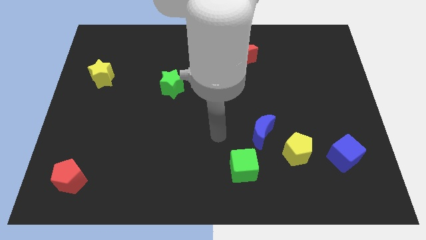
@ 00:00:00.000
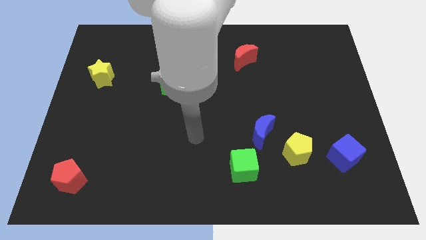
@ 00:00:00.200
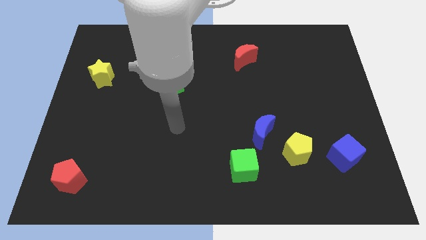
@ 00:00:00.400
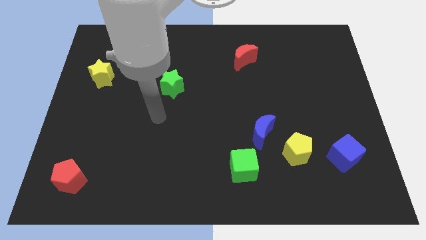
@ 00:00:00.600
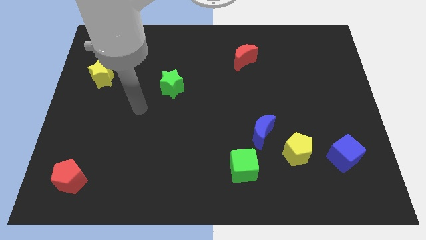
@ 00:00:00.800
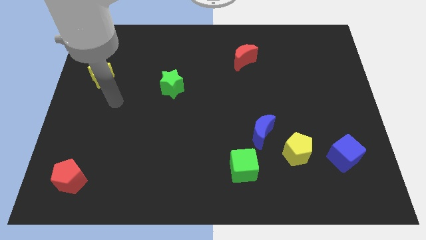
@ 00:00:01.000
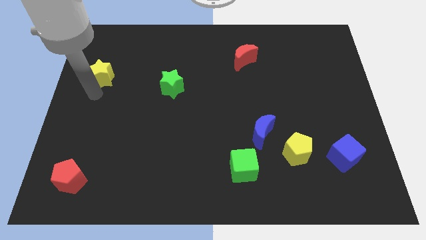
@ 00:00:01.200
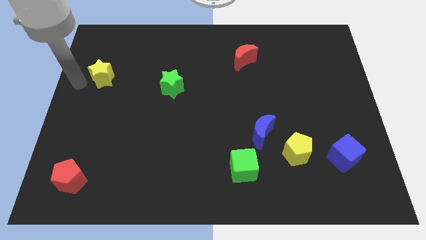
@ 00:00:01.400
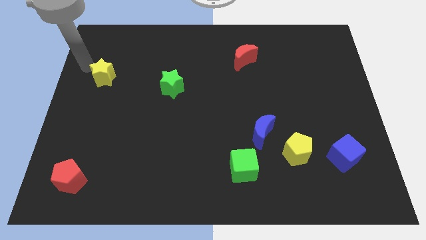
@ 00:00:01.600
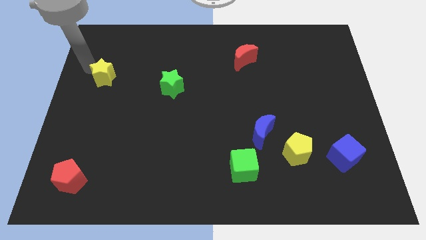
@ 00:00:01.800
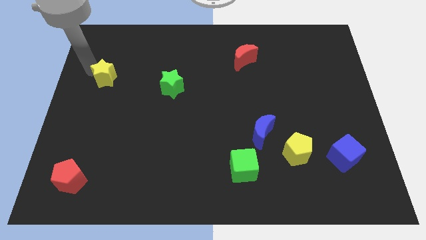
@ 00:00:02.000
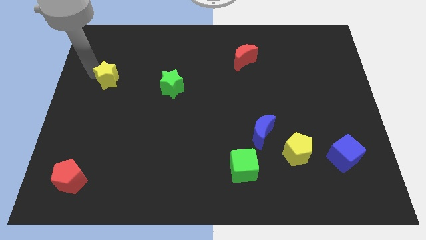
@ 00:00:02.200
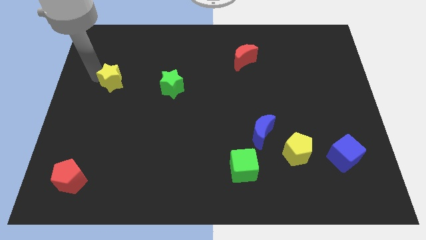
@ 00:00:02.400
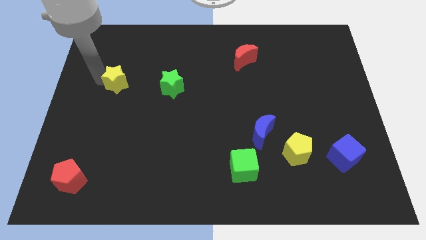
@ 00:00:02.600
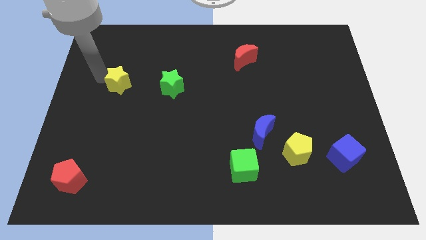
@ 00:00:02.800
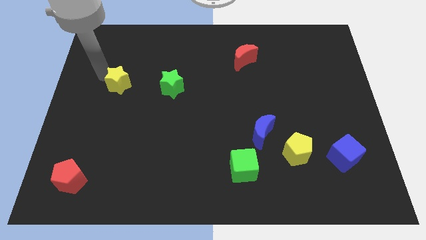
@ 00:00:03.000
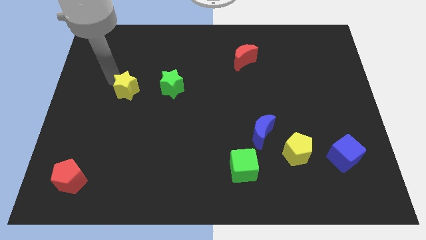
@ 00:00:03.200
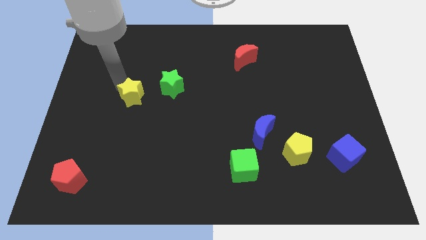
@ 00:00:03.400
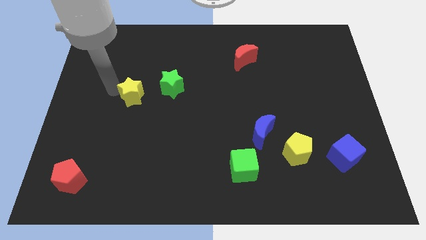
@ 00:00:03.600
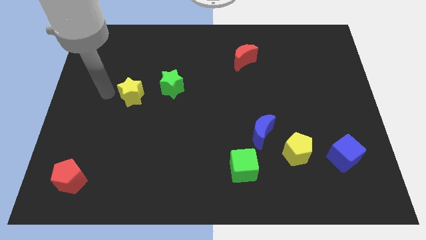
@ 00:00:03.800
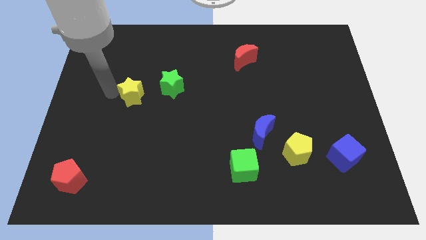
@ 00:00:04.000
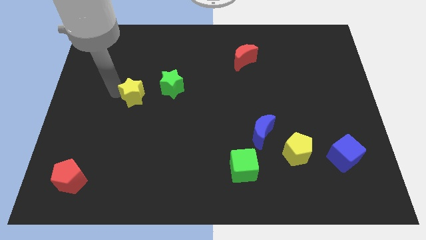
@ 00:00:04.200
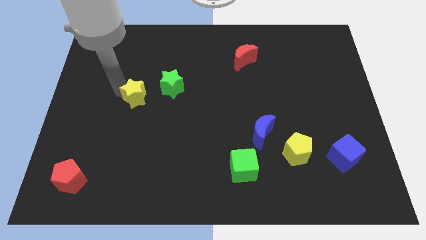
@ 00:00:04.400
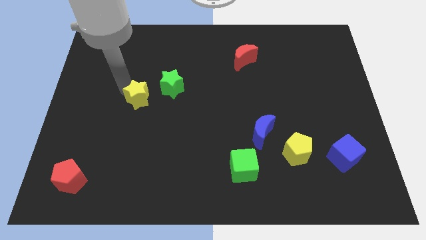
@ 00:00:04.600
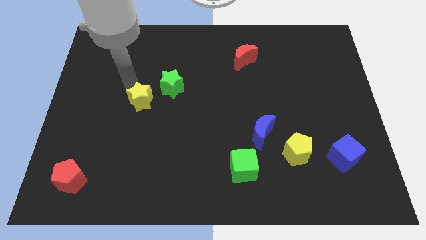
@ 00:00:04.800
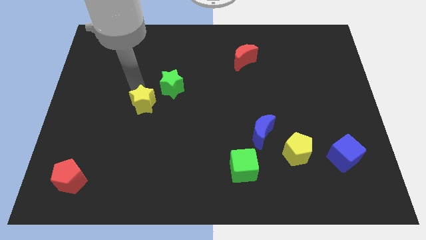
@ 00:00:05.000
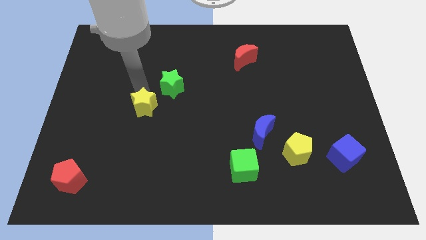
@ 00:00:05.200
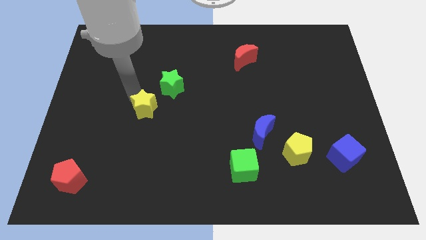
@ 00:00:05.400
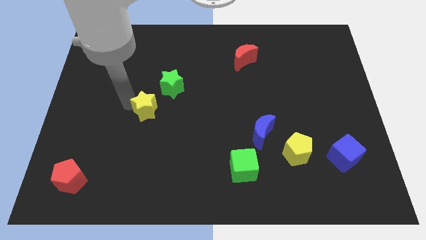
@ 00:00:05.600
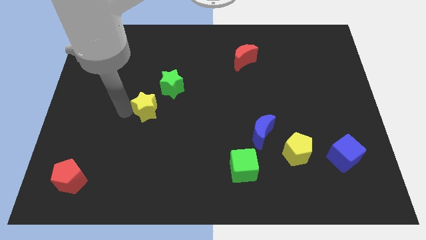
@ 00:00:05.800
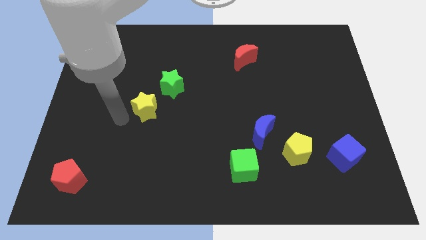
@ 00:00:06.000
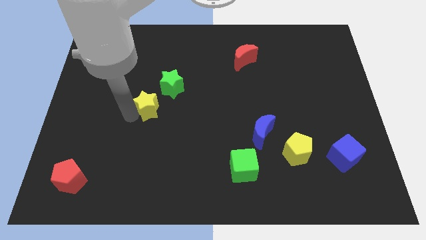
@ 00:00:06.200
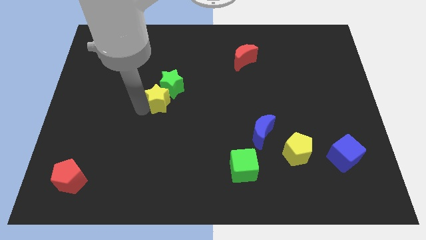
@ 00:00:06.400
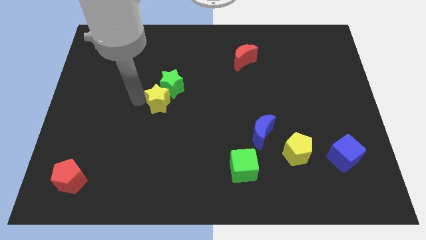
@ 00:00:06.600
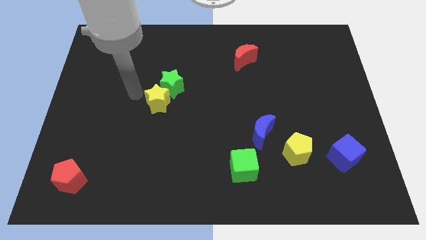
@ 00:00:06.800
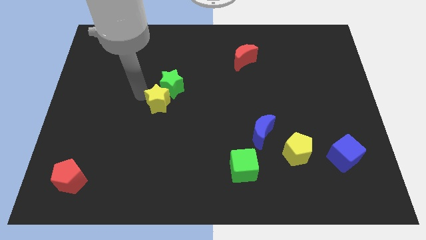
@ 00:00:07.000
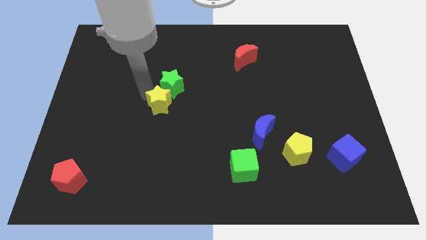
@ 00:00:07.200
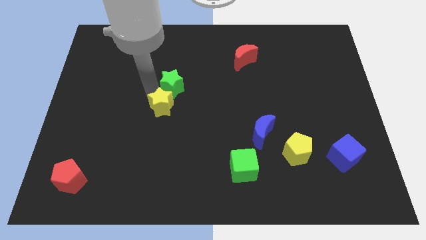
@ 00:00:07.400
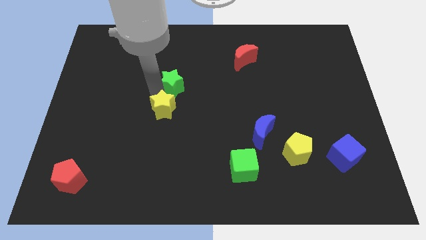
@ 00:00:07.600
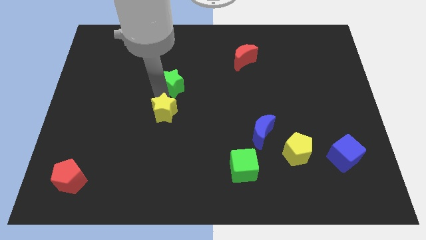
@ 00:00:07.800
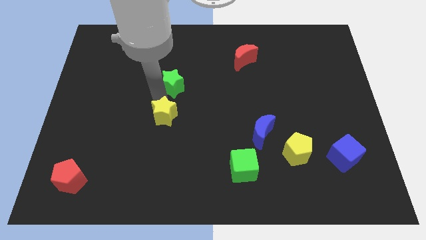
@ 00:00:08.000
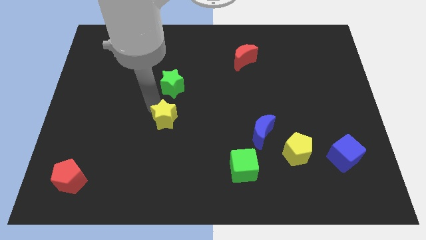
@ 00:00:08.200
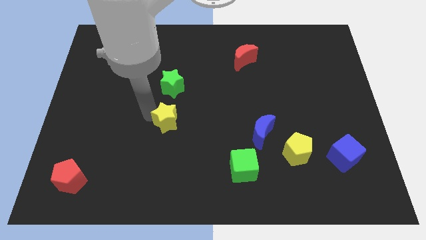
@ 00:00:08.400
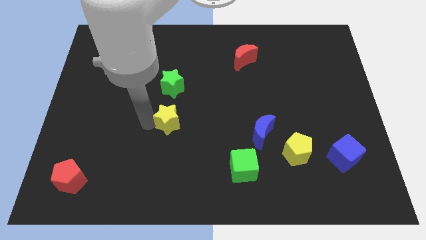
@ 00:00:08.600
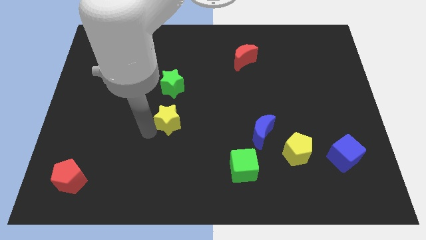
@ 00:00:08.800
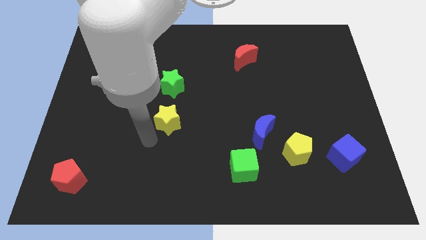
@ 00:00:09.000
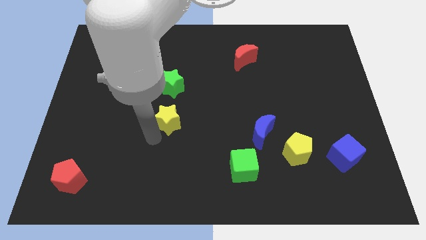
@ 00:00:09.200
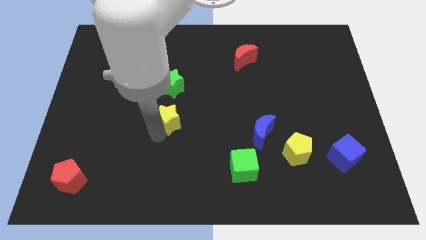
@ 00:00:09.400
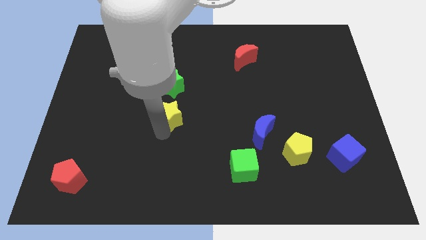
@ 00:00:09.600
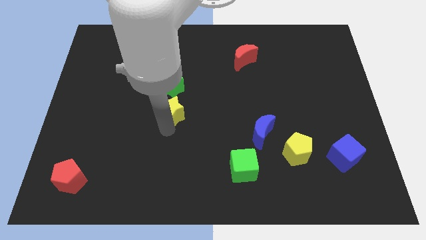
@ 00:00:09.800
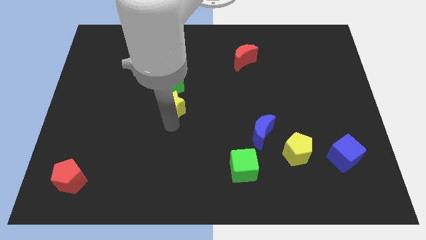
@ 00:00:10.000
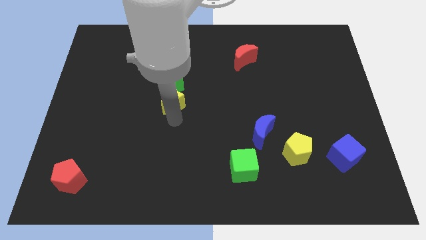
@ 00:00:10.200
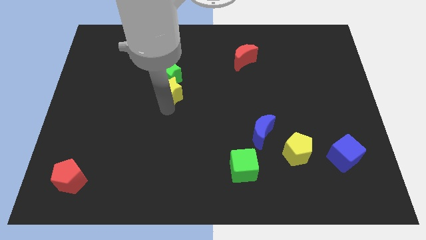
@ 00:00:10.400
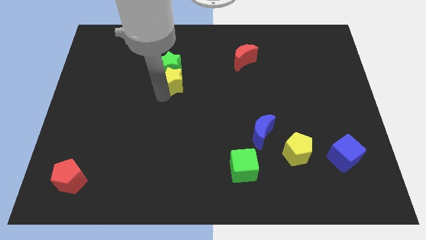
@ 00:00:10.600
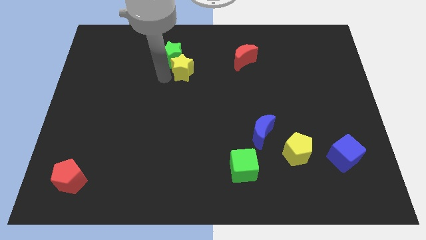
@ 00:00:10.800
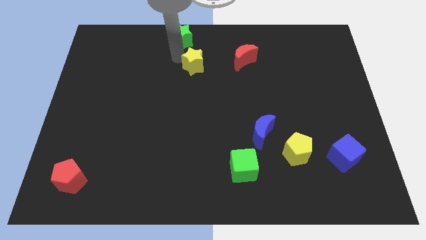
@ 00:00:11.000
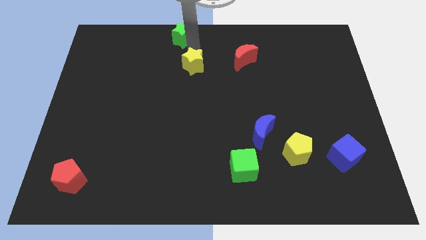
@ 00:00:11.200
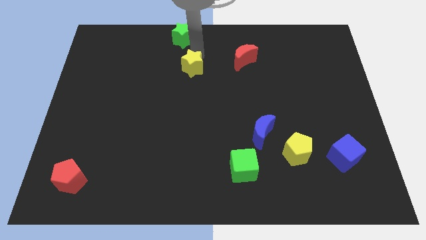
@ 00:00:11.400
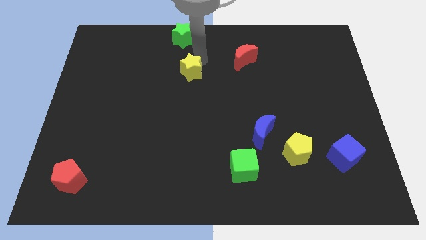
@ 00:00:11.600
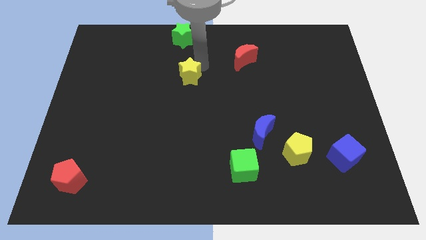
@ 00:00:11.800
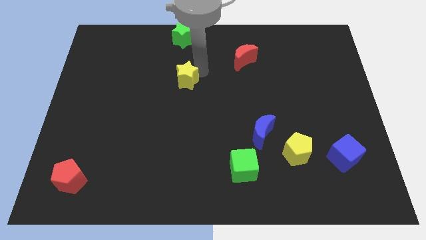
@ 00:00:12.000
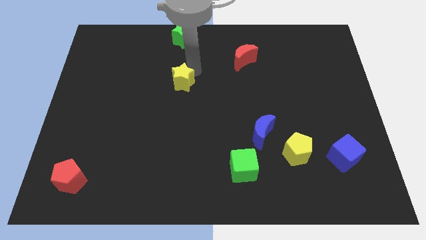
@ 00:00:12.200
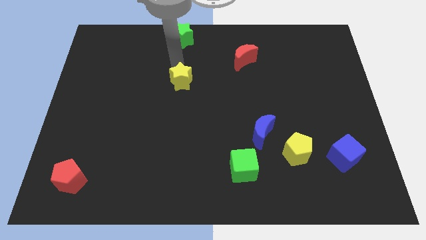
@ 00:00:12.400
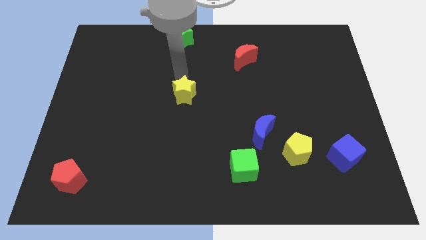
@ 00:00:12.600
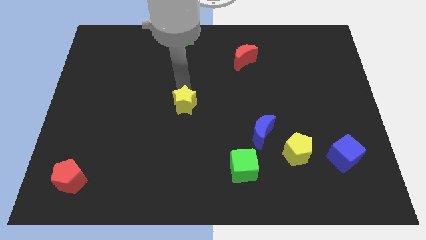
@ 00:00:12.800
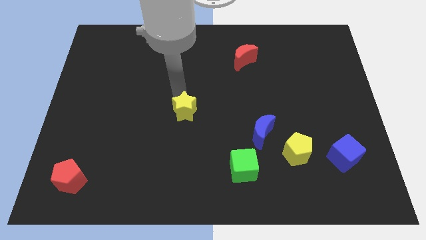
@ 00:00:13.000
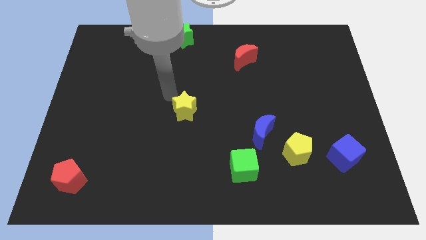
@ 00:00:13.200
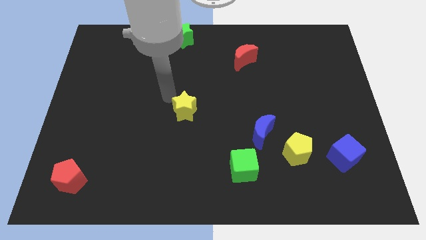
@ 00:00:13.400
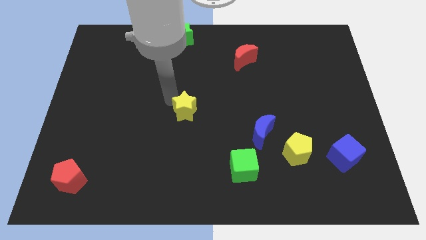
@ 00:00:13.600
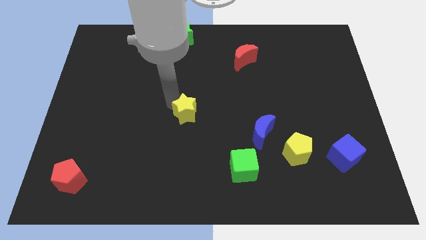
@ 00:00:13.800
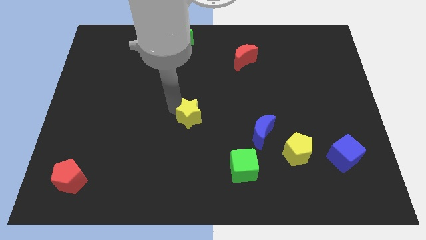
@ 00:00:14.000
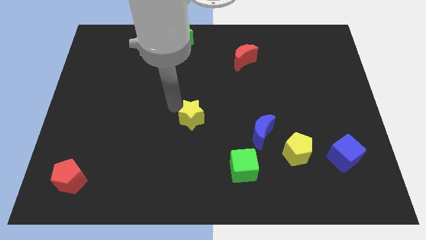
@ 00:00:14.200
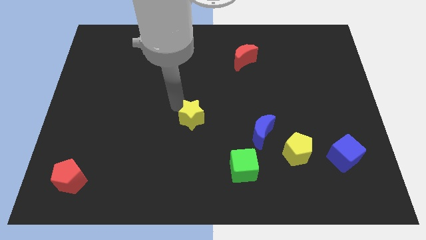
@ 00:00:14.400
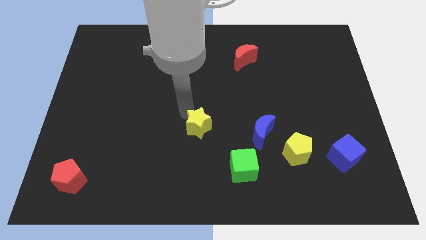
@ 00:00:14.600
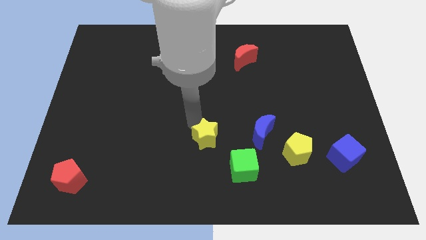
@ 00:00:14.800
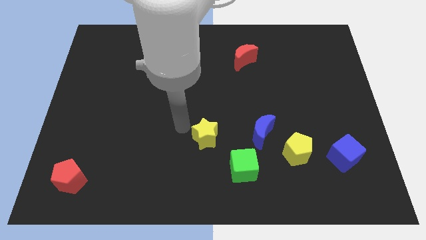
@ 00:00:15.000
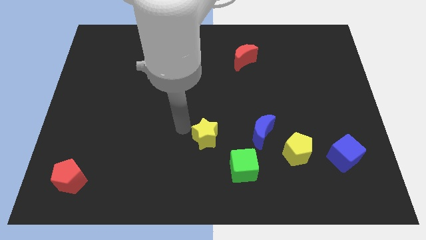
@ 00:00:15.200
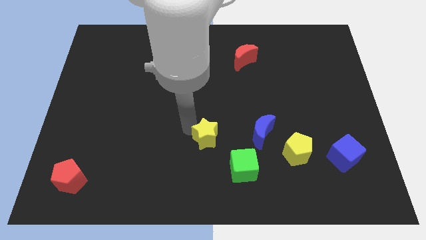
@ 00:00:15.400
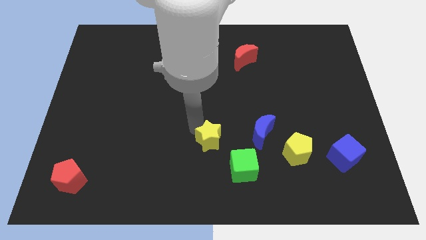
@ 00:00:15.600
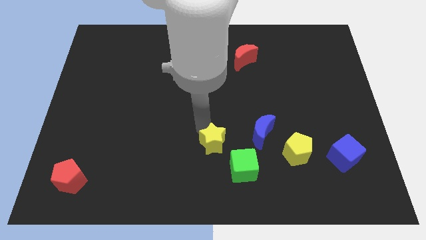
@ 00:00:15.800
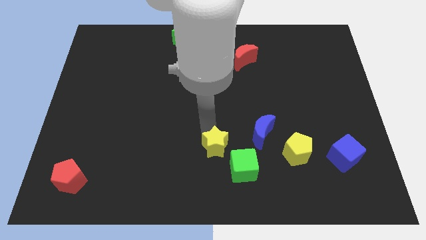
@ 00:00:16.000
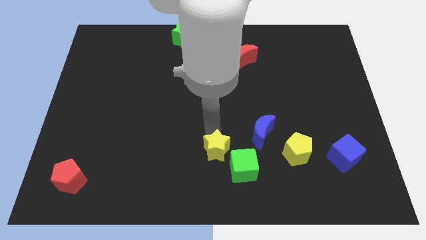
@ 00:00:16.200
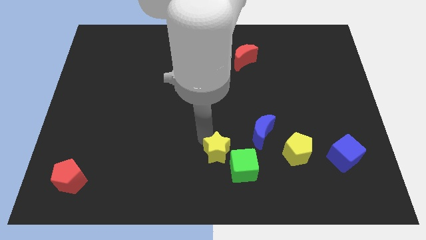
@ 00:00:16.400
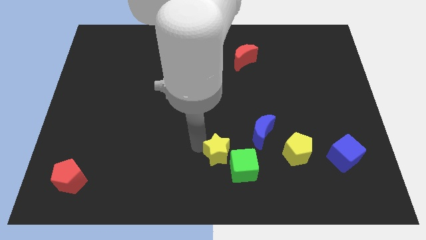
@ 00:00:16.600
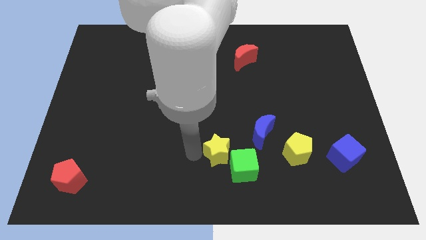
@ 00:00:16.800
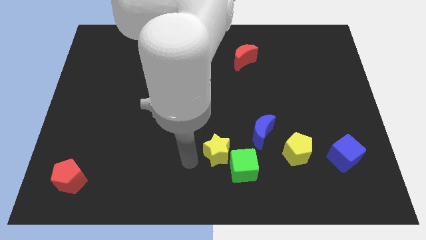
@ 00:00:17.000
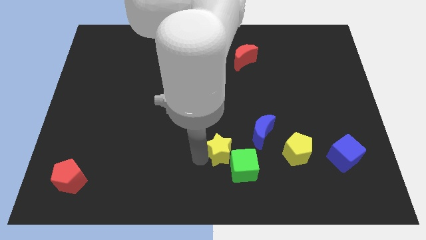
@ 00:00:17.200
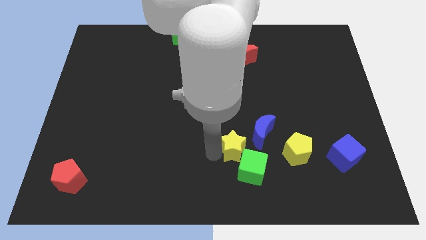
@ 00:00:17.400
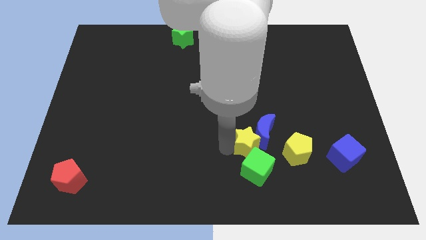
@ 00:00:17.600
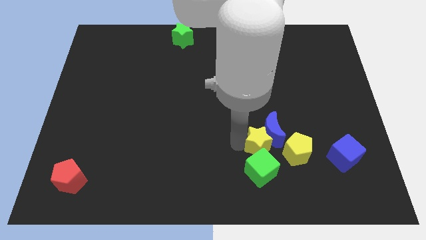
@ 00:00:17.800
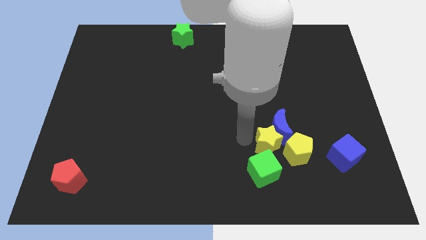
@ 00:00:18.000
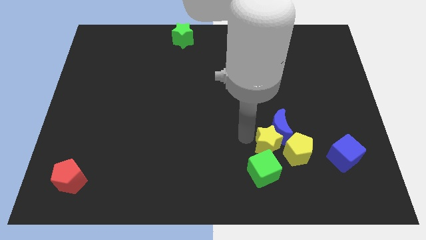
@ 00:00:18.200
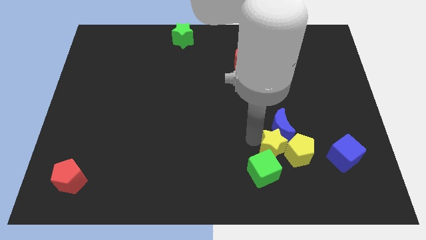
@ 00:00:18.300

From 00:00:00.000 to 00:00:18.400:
put the yellow star towards the yellow pentagon
